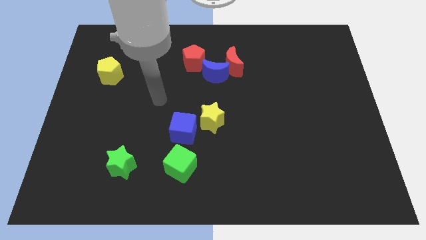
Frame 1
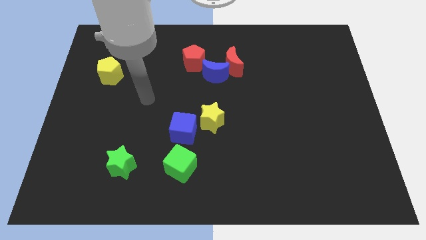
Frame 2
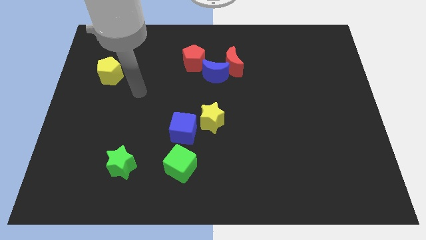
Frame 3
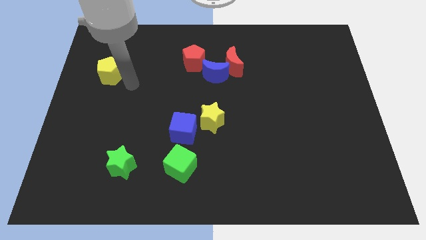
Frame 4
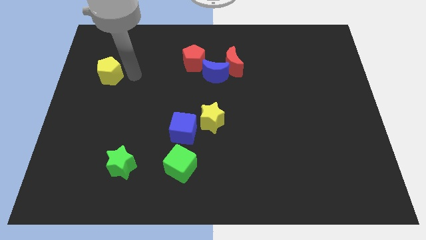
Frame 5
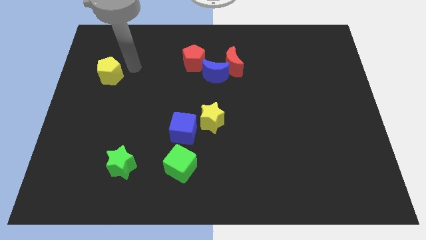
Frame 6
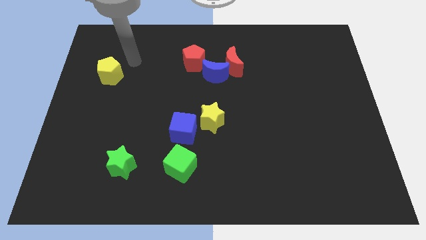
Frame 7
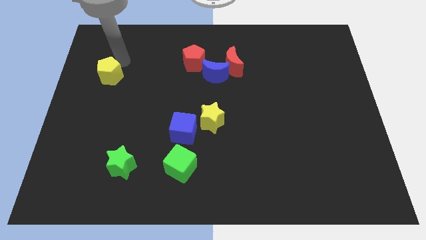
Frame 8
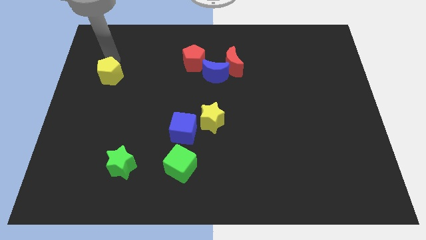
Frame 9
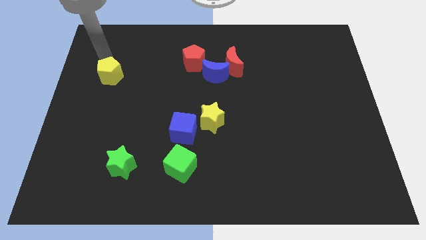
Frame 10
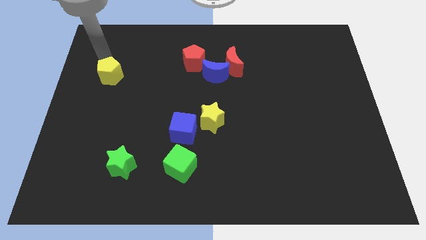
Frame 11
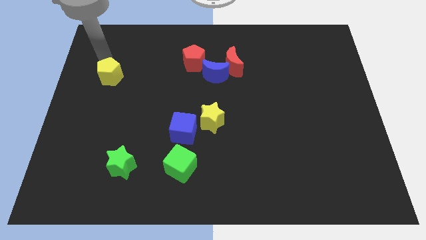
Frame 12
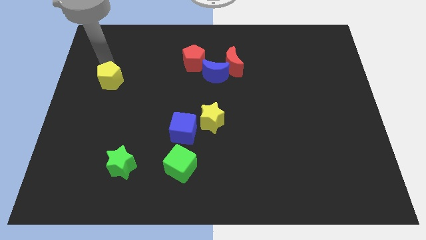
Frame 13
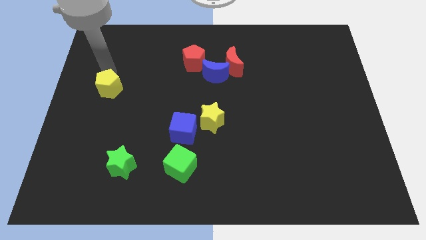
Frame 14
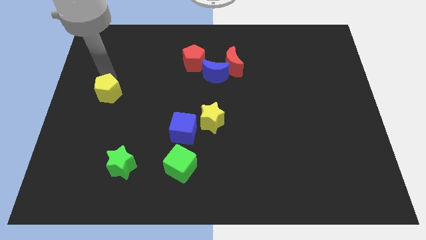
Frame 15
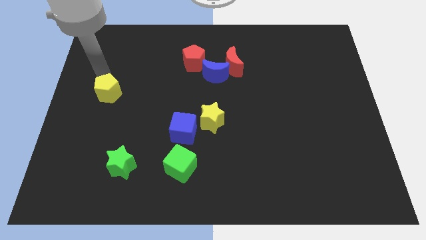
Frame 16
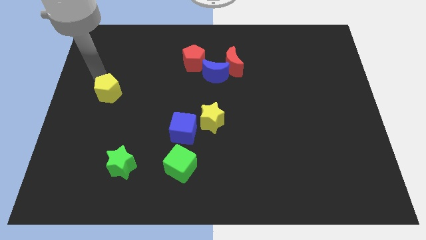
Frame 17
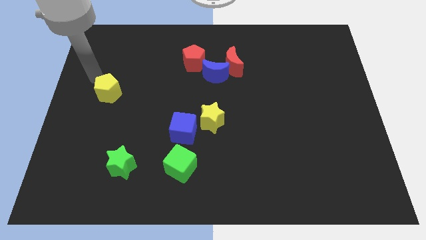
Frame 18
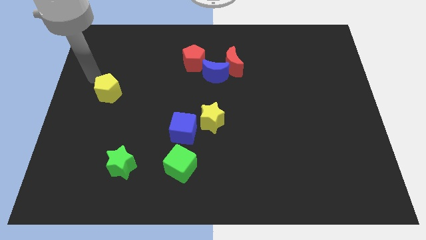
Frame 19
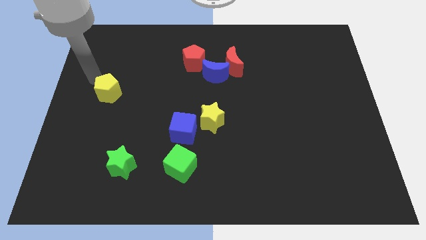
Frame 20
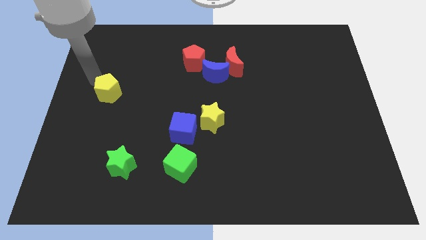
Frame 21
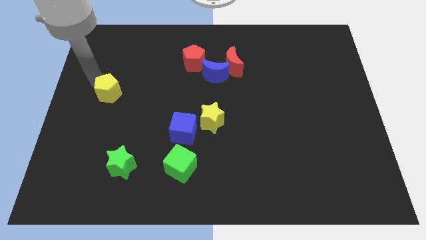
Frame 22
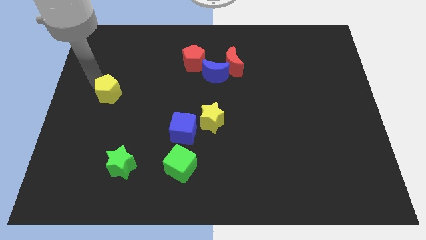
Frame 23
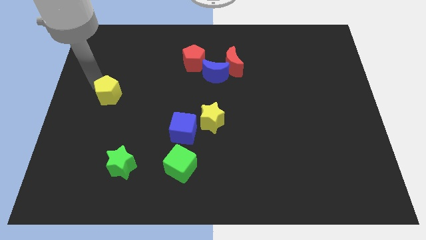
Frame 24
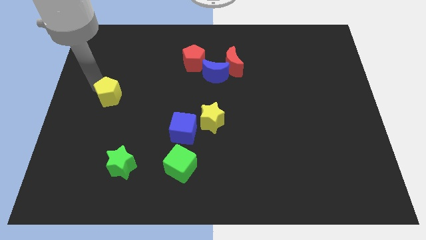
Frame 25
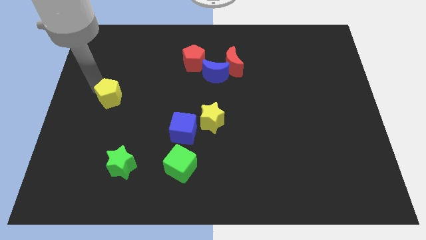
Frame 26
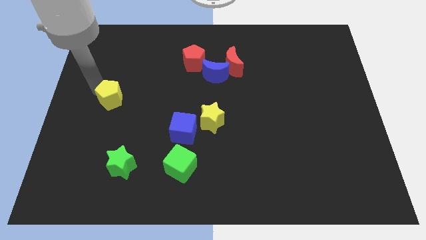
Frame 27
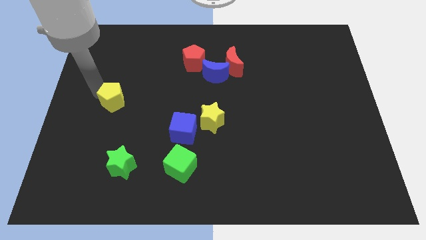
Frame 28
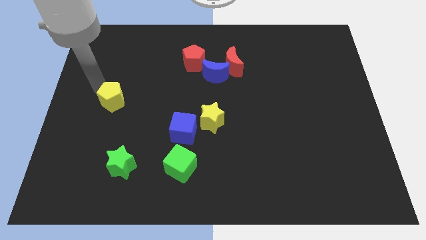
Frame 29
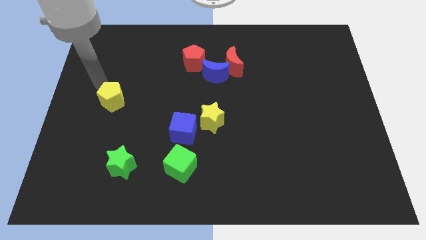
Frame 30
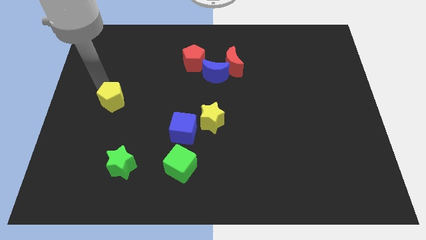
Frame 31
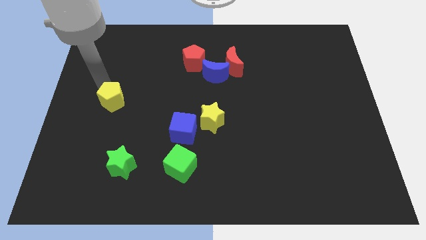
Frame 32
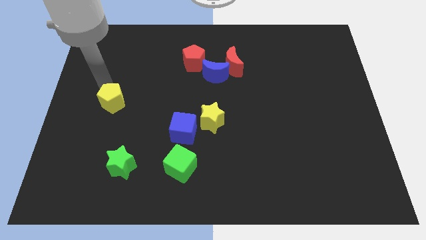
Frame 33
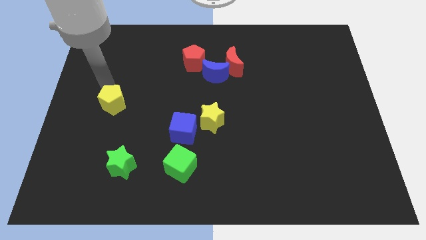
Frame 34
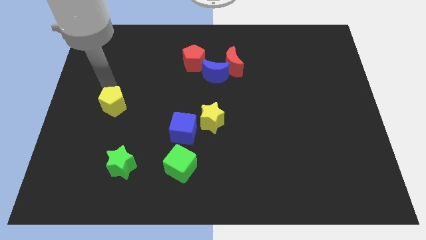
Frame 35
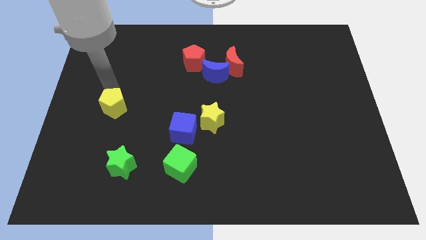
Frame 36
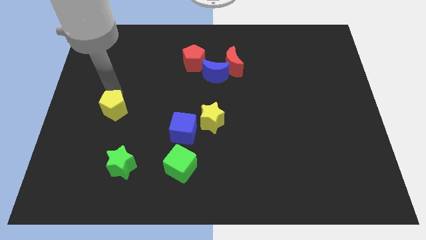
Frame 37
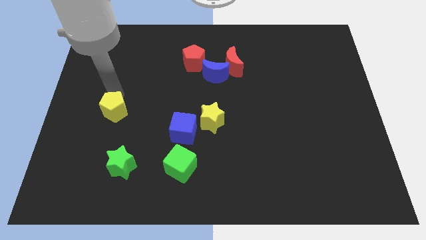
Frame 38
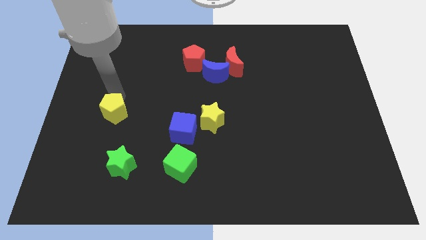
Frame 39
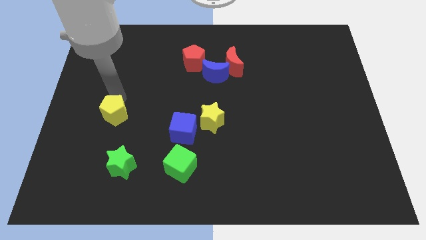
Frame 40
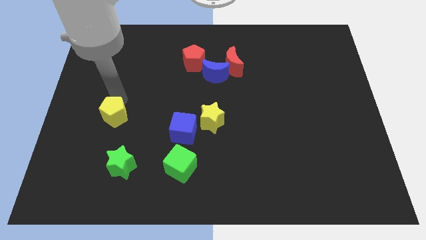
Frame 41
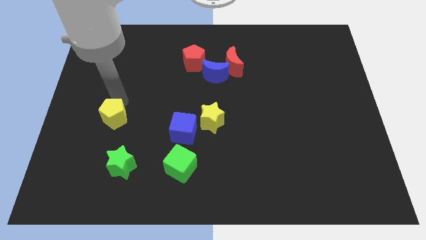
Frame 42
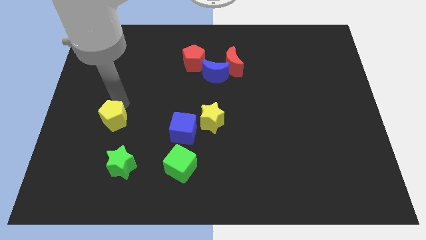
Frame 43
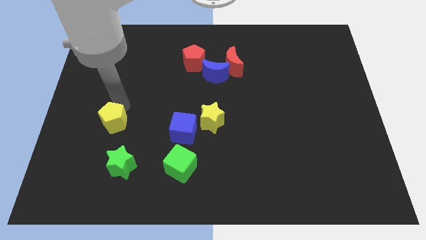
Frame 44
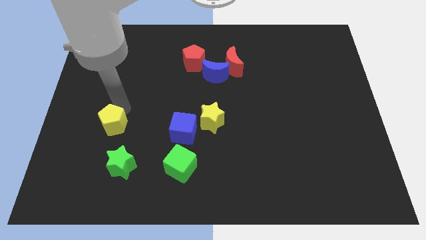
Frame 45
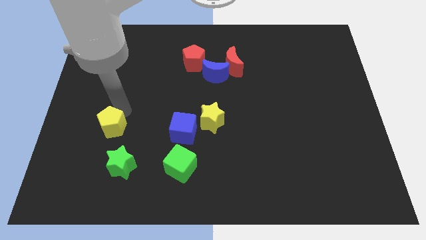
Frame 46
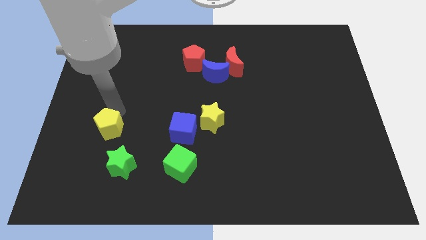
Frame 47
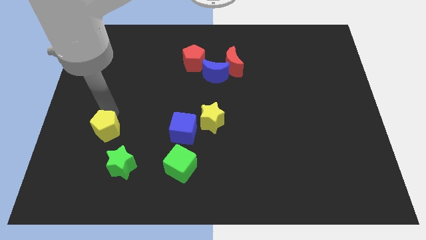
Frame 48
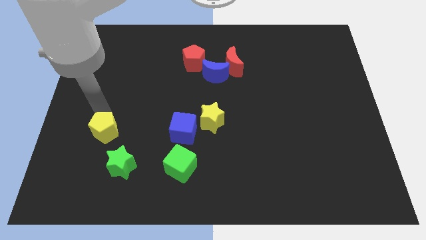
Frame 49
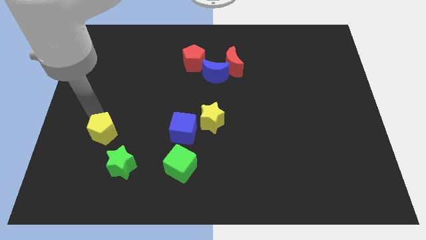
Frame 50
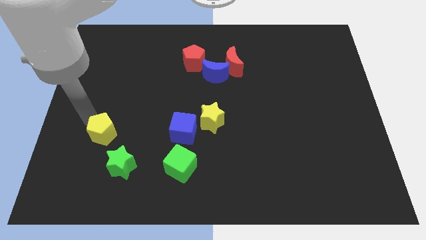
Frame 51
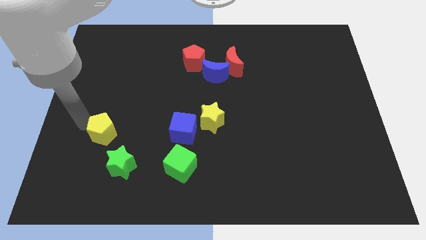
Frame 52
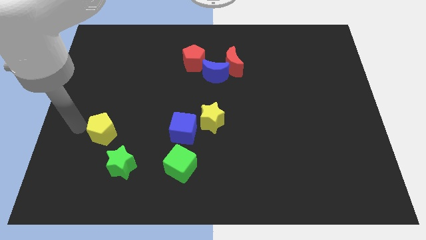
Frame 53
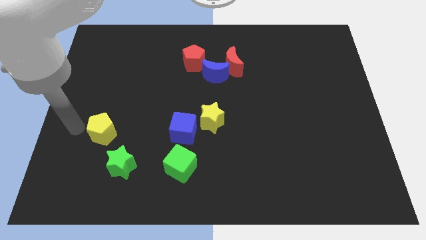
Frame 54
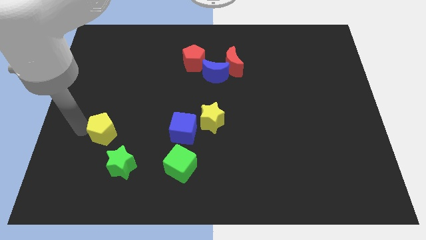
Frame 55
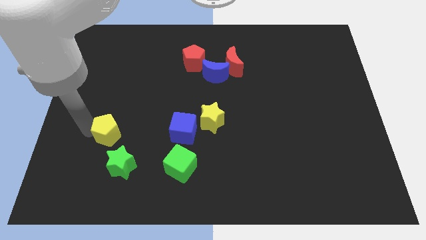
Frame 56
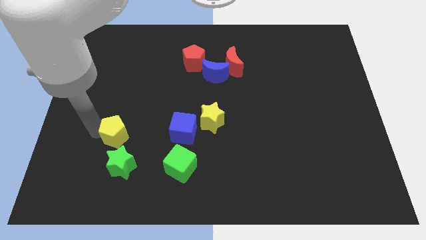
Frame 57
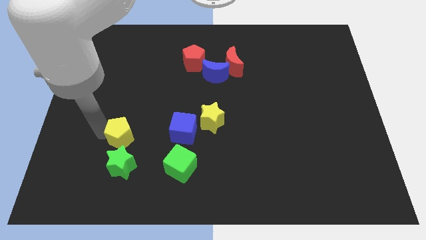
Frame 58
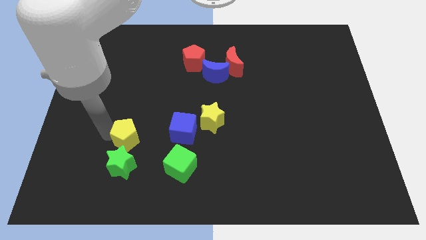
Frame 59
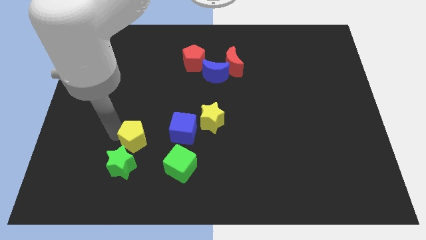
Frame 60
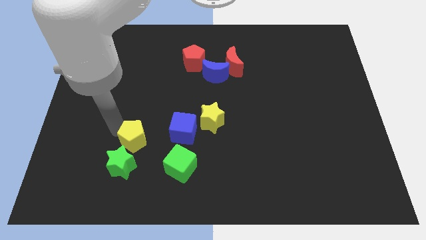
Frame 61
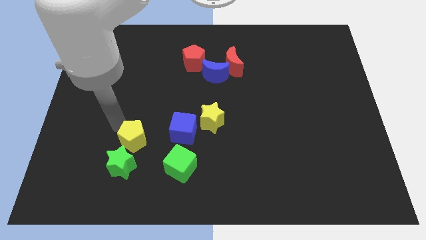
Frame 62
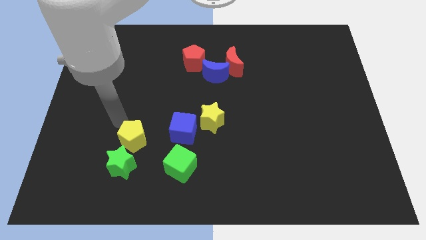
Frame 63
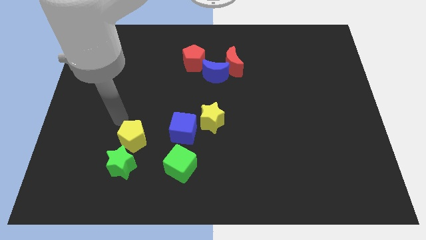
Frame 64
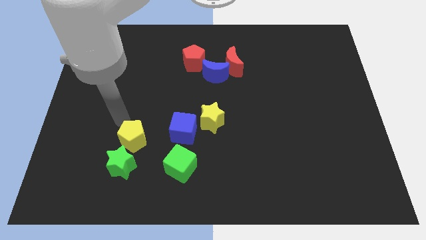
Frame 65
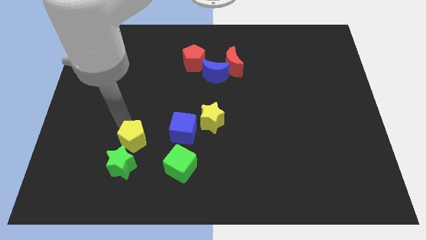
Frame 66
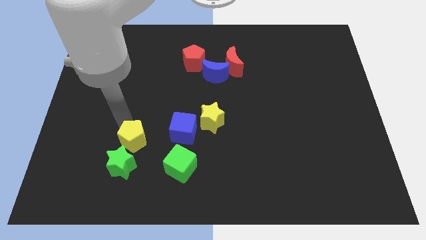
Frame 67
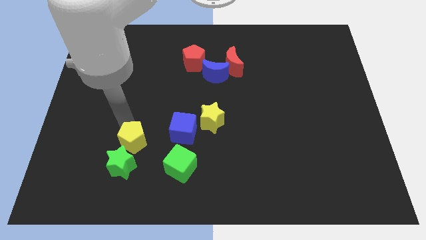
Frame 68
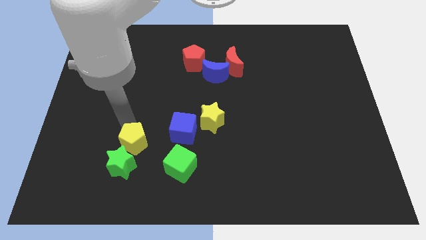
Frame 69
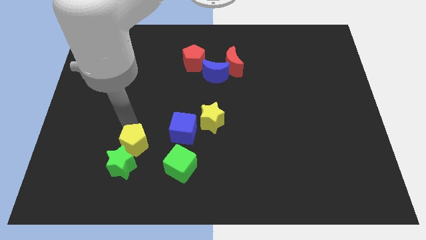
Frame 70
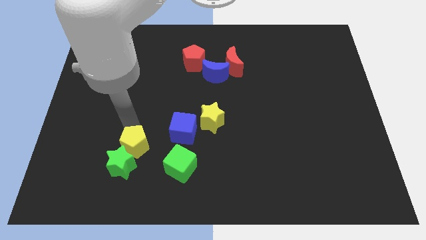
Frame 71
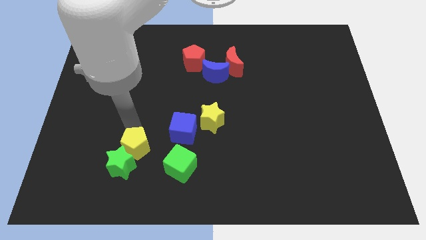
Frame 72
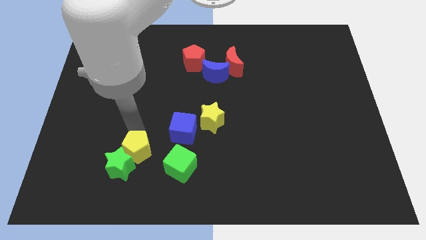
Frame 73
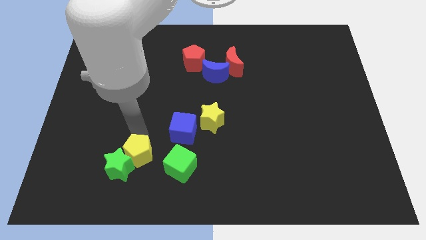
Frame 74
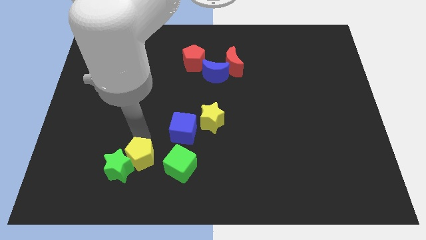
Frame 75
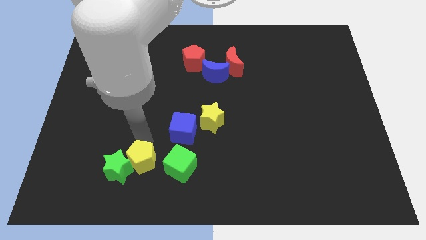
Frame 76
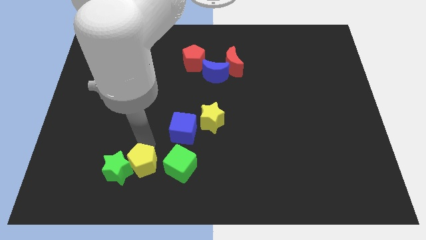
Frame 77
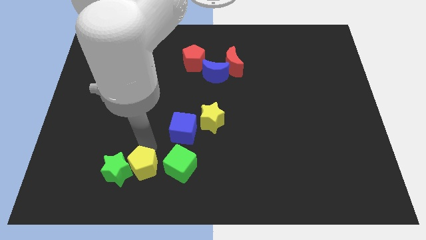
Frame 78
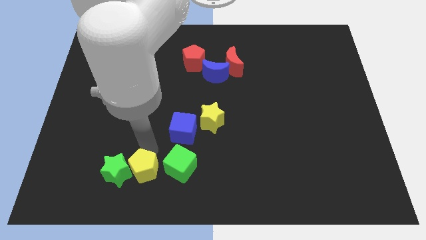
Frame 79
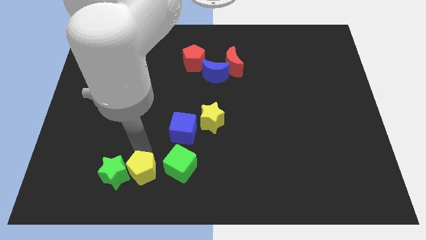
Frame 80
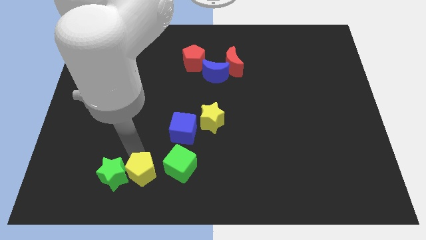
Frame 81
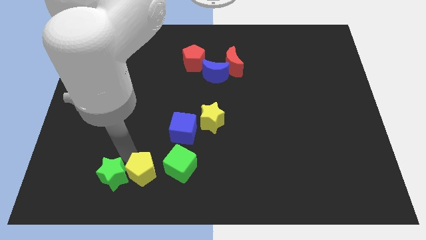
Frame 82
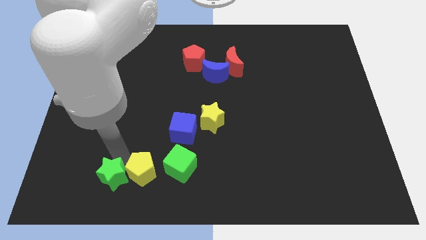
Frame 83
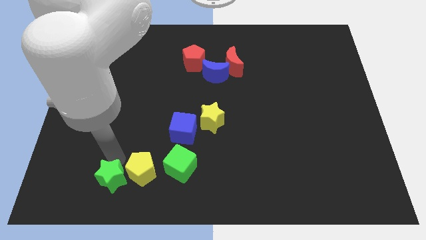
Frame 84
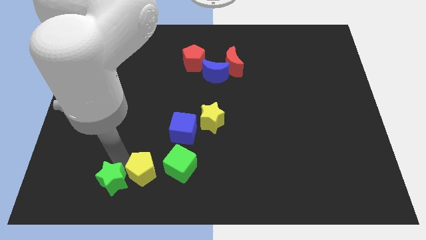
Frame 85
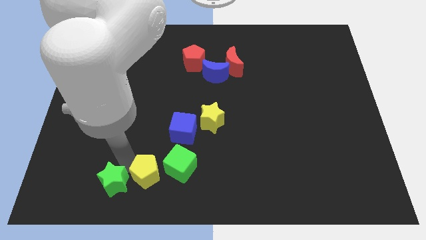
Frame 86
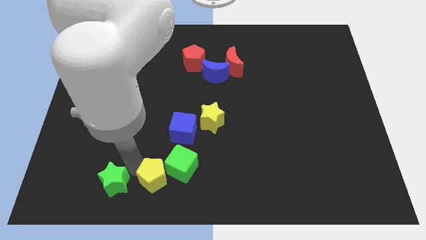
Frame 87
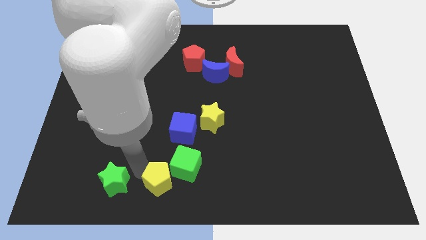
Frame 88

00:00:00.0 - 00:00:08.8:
slide the yellow pentagon to the bottom
